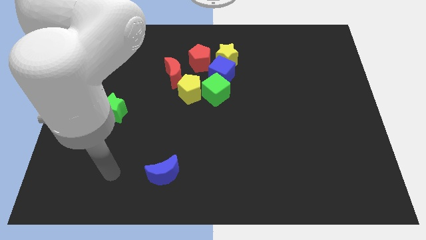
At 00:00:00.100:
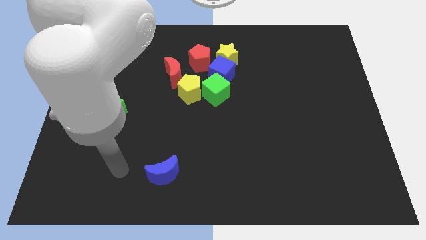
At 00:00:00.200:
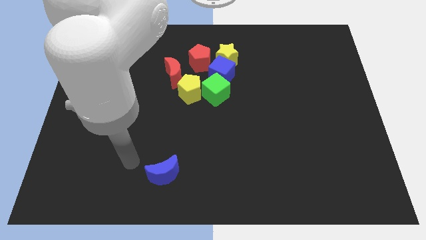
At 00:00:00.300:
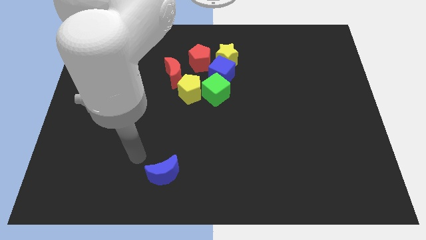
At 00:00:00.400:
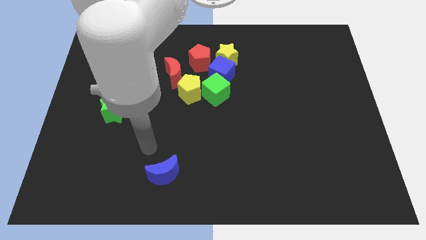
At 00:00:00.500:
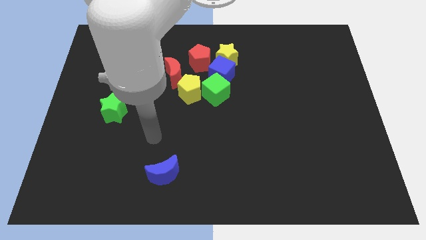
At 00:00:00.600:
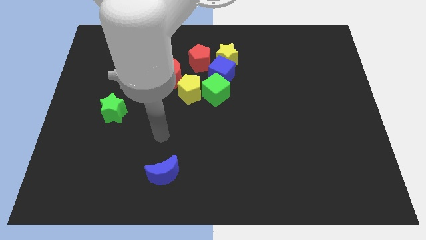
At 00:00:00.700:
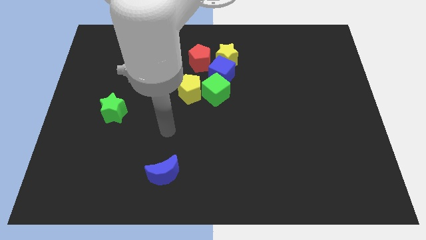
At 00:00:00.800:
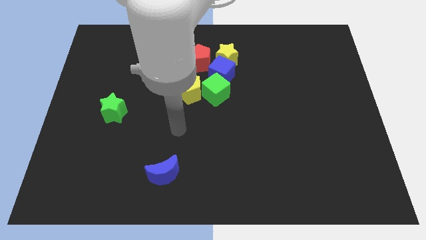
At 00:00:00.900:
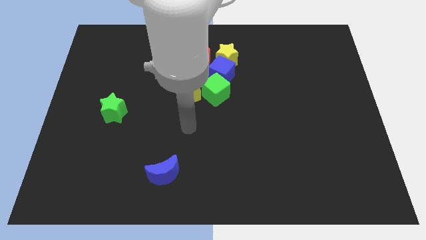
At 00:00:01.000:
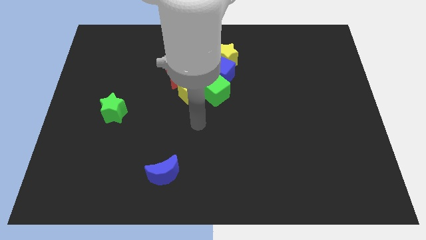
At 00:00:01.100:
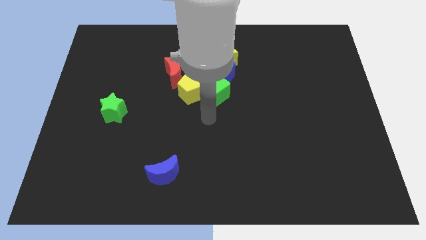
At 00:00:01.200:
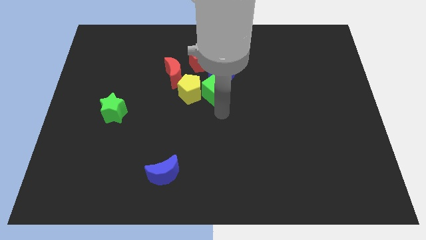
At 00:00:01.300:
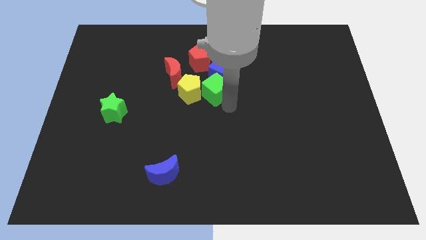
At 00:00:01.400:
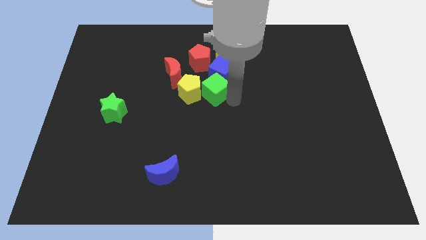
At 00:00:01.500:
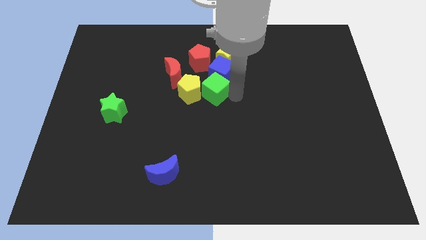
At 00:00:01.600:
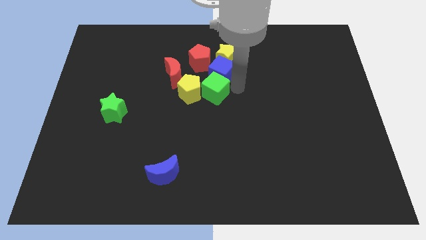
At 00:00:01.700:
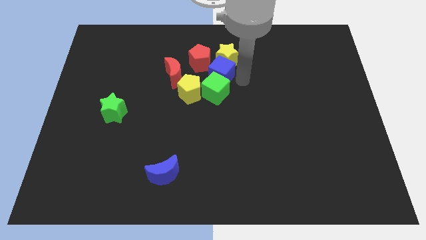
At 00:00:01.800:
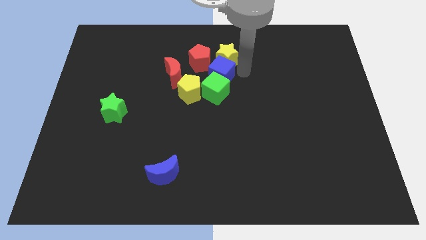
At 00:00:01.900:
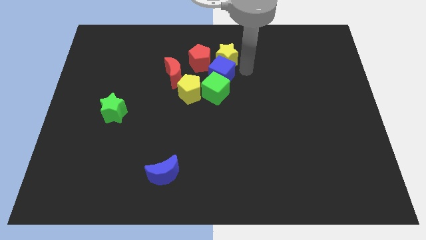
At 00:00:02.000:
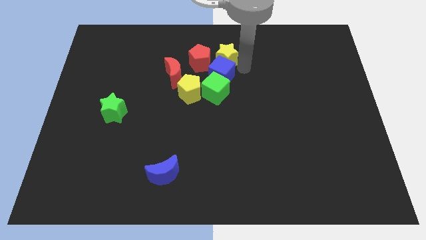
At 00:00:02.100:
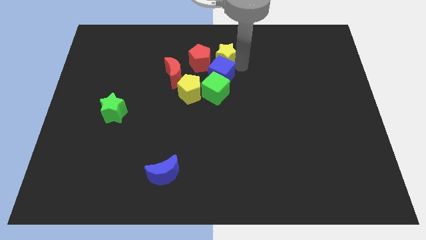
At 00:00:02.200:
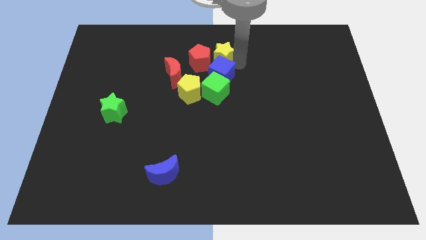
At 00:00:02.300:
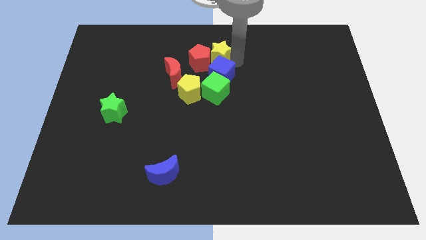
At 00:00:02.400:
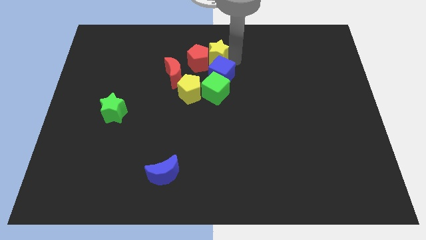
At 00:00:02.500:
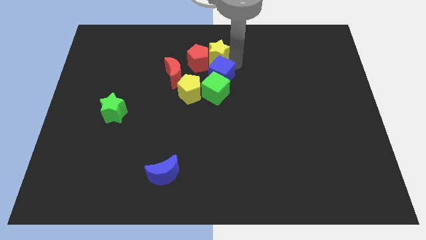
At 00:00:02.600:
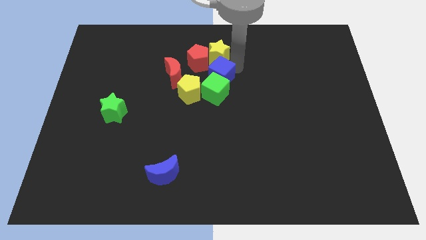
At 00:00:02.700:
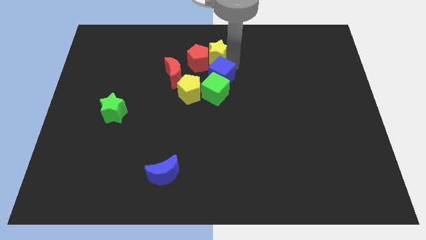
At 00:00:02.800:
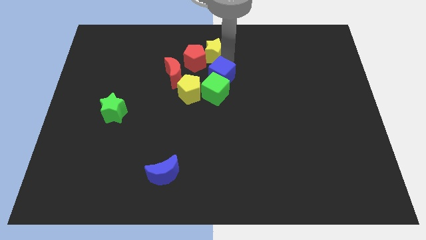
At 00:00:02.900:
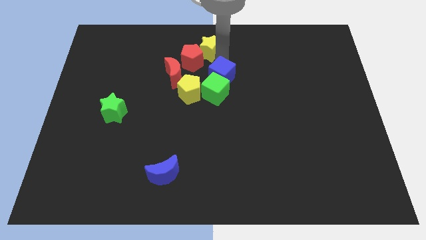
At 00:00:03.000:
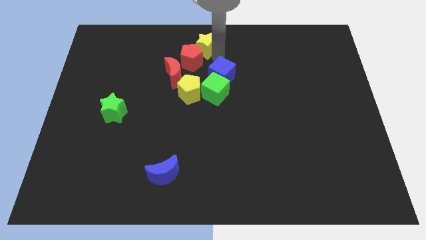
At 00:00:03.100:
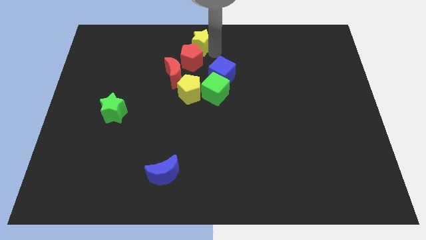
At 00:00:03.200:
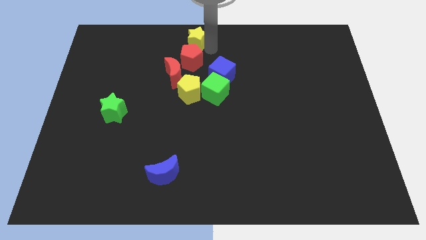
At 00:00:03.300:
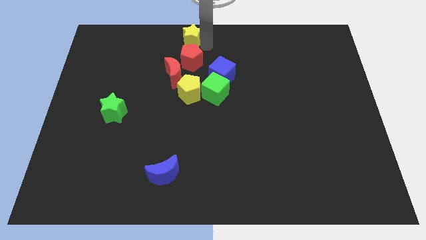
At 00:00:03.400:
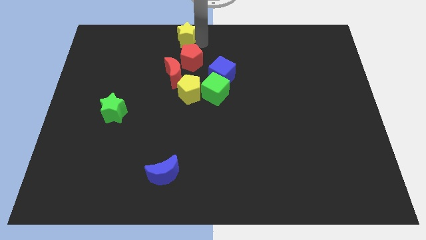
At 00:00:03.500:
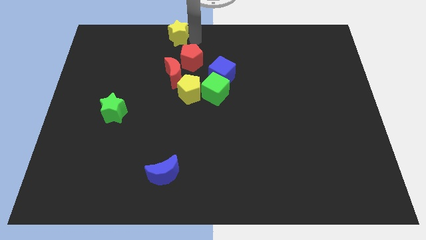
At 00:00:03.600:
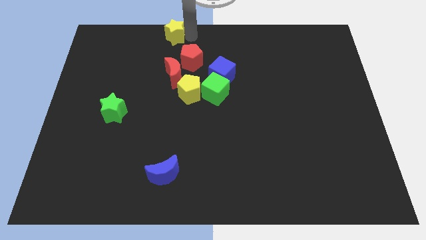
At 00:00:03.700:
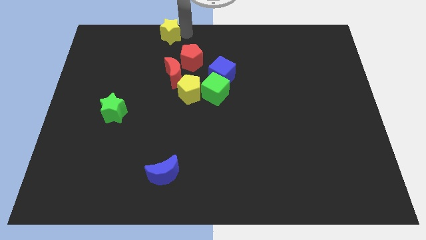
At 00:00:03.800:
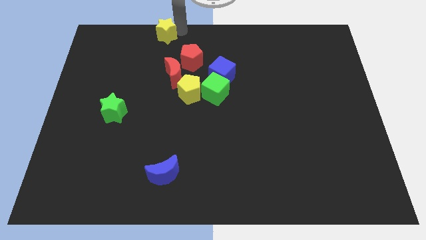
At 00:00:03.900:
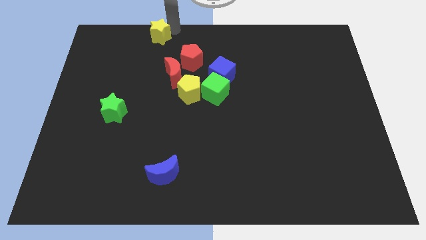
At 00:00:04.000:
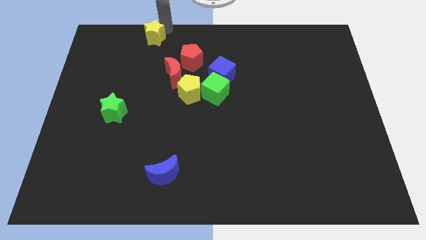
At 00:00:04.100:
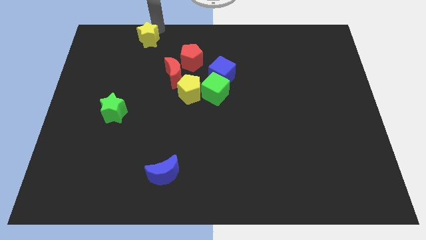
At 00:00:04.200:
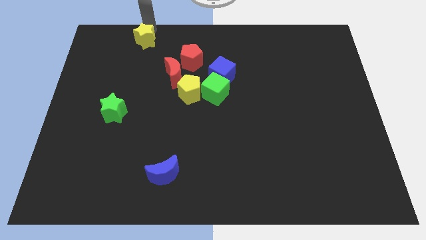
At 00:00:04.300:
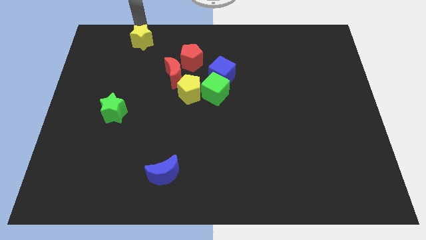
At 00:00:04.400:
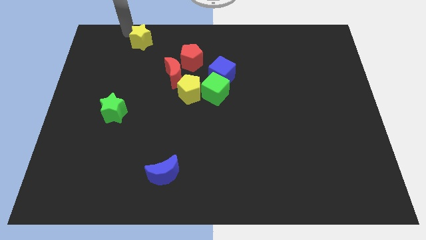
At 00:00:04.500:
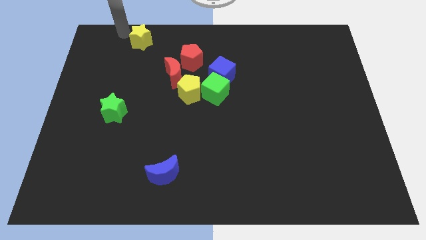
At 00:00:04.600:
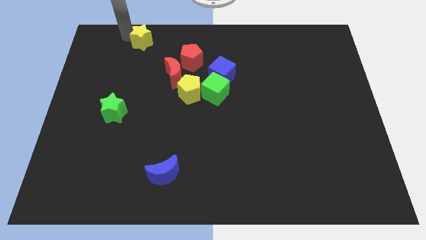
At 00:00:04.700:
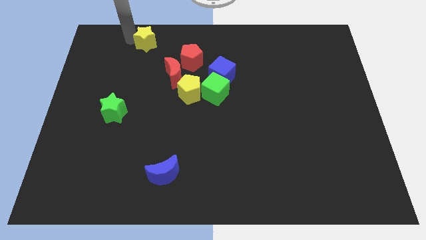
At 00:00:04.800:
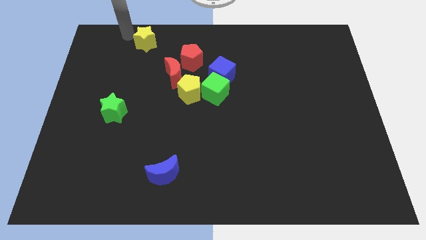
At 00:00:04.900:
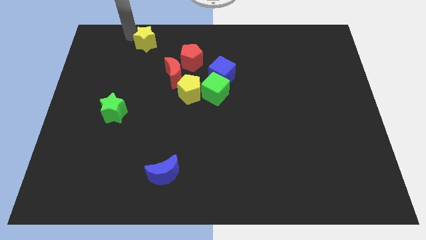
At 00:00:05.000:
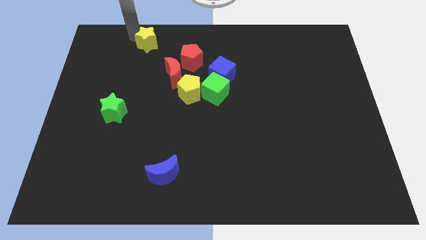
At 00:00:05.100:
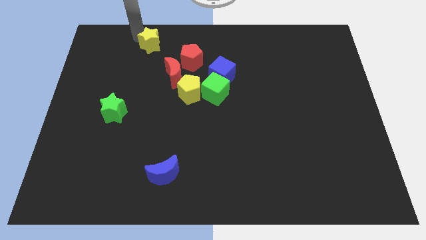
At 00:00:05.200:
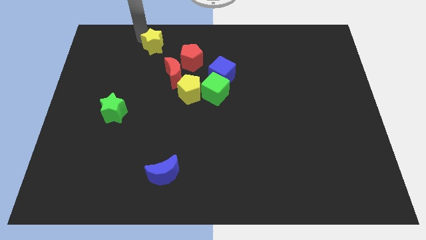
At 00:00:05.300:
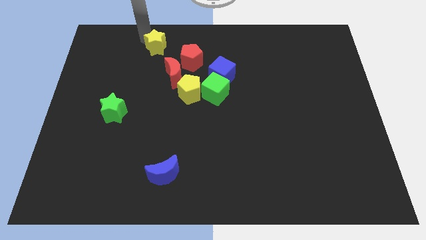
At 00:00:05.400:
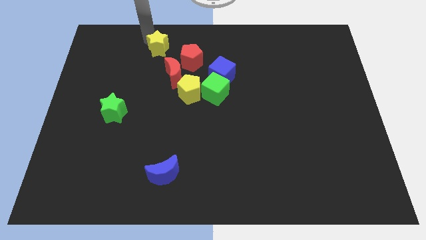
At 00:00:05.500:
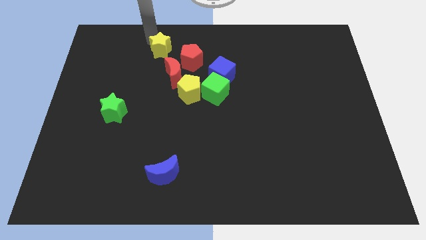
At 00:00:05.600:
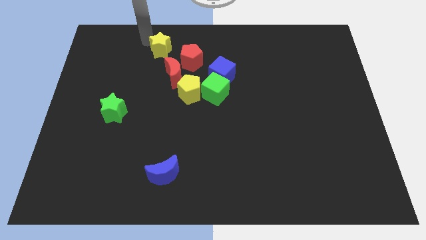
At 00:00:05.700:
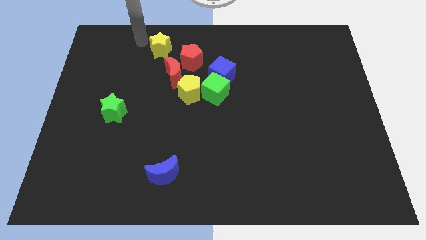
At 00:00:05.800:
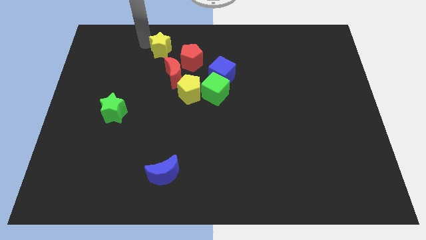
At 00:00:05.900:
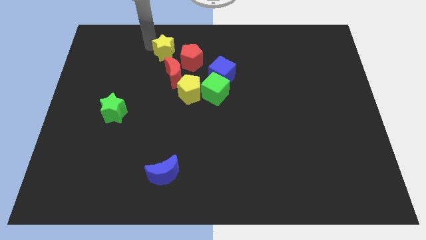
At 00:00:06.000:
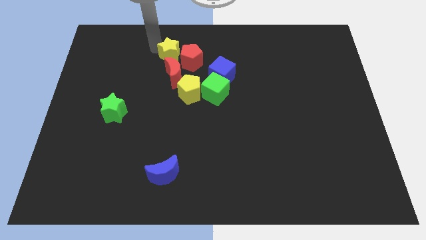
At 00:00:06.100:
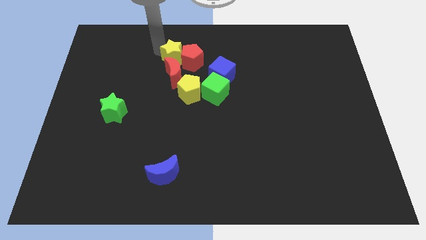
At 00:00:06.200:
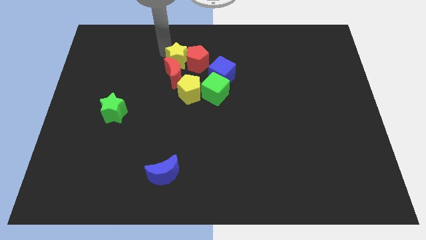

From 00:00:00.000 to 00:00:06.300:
put the yellow star next to the red moon
